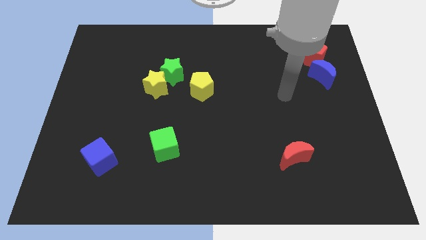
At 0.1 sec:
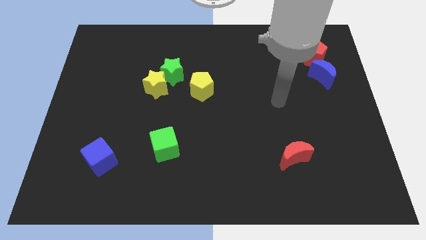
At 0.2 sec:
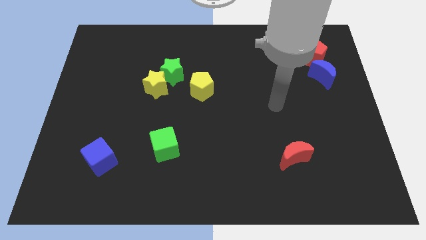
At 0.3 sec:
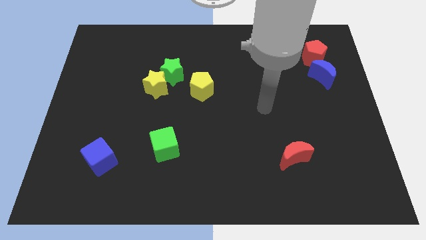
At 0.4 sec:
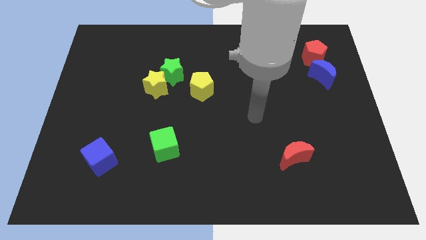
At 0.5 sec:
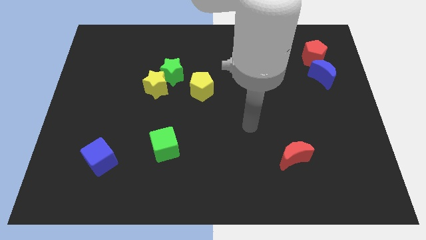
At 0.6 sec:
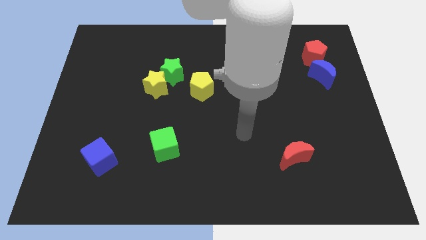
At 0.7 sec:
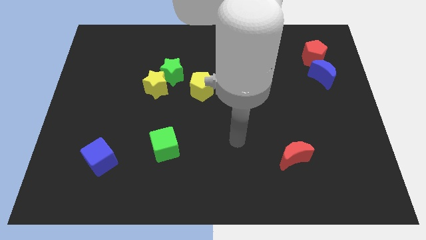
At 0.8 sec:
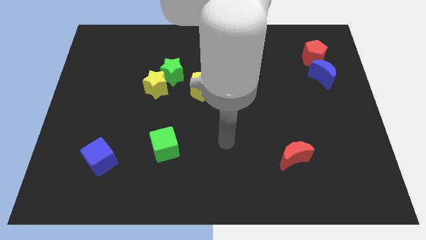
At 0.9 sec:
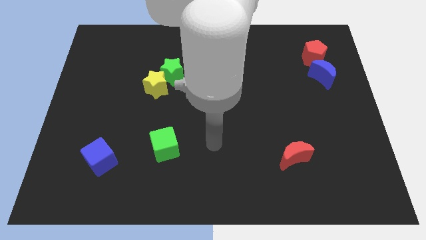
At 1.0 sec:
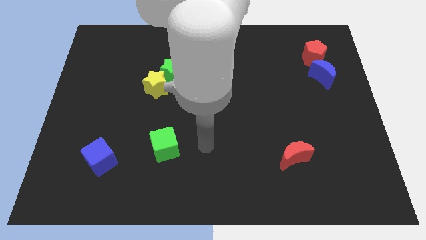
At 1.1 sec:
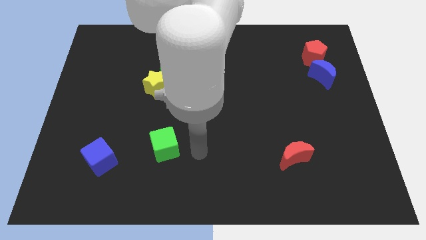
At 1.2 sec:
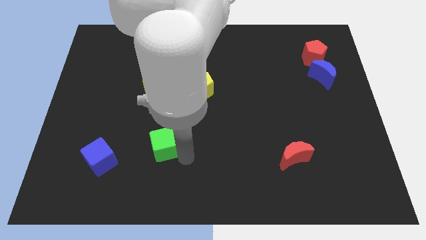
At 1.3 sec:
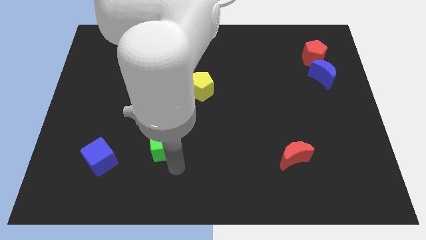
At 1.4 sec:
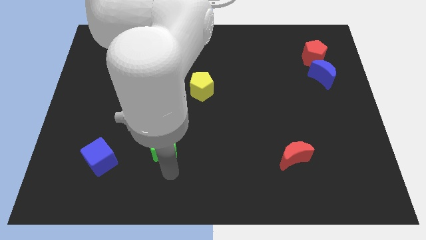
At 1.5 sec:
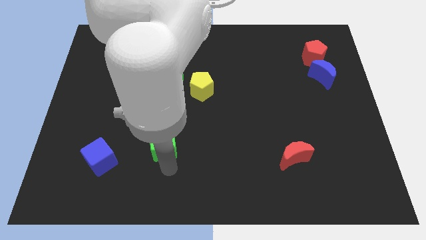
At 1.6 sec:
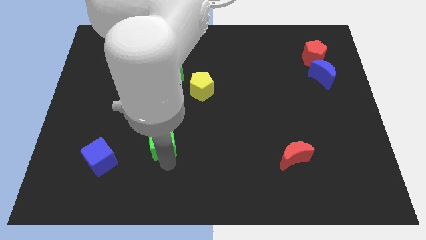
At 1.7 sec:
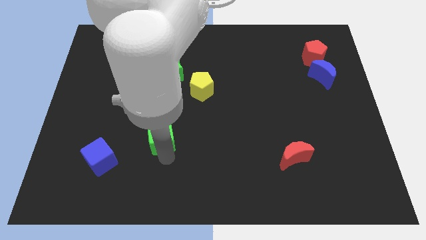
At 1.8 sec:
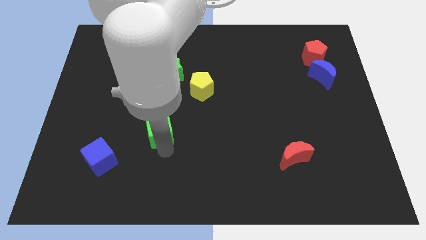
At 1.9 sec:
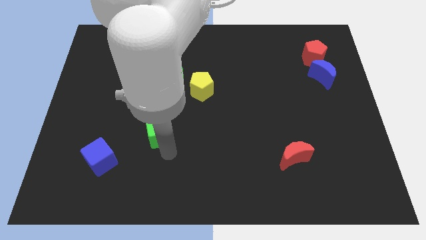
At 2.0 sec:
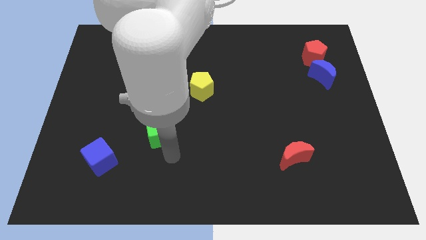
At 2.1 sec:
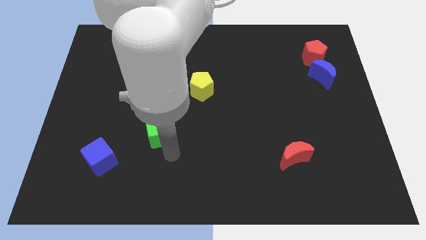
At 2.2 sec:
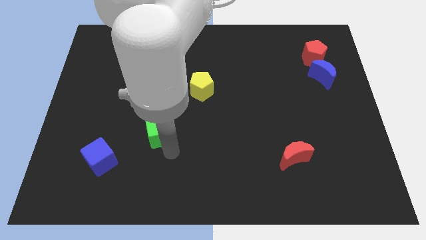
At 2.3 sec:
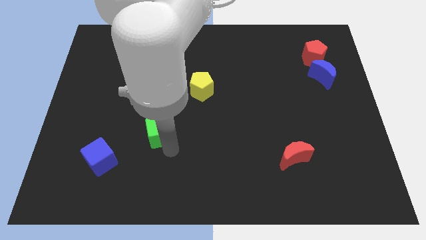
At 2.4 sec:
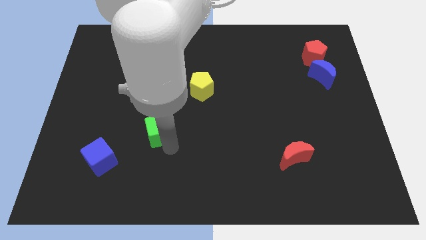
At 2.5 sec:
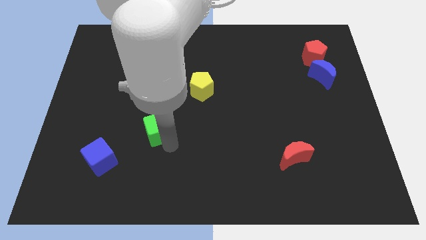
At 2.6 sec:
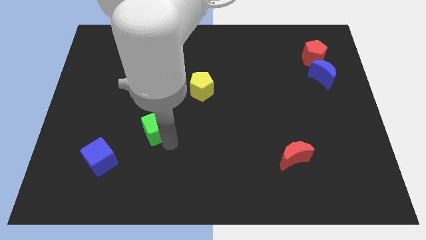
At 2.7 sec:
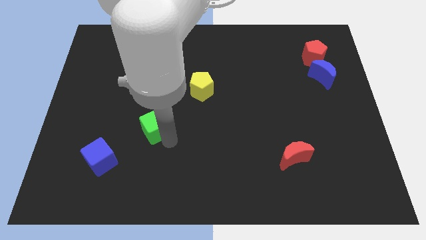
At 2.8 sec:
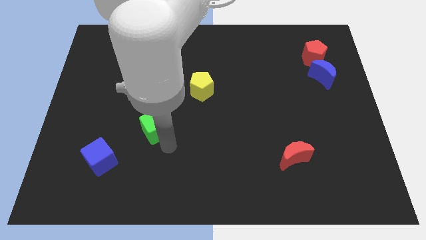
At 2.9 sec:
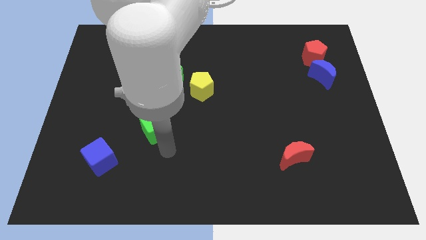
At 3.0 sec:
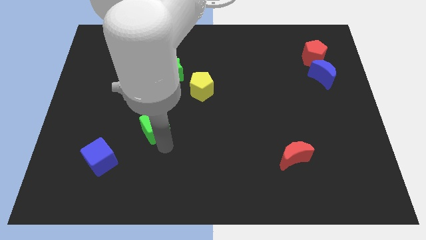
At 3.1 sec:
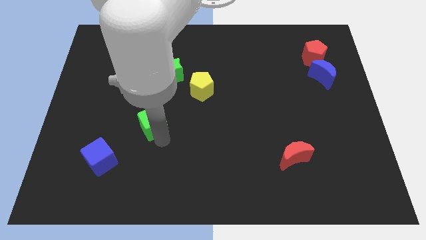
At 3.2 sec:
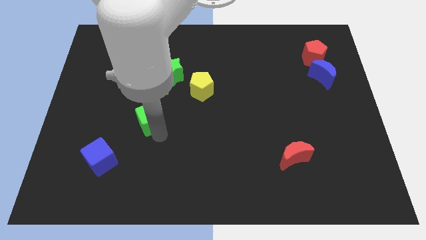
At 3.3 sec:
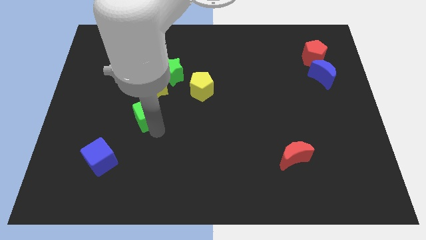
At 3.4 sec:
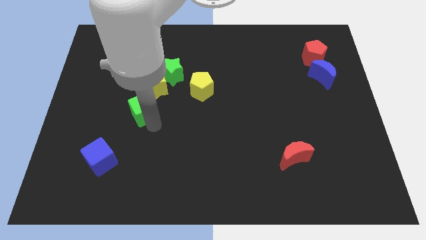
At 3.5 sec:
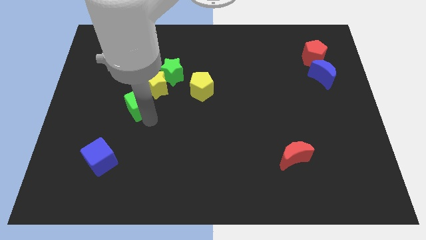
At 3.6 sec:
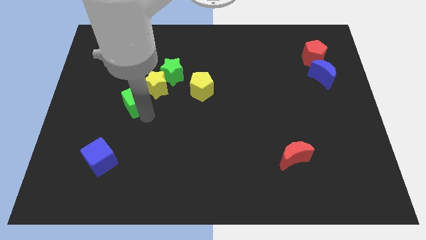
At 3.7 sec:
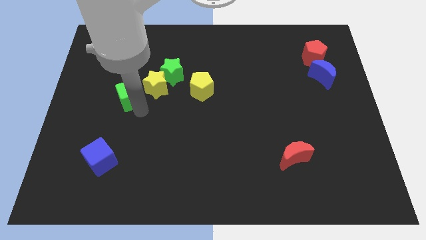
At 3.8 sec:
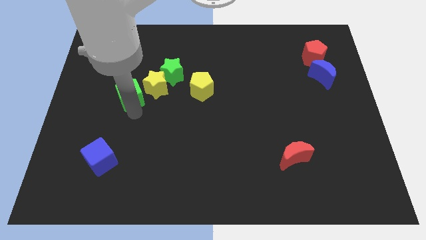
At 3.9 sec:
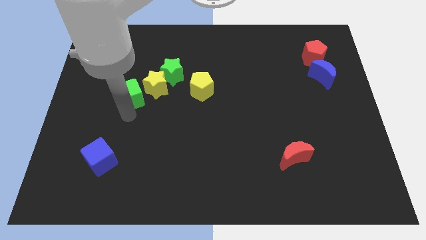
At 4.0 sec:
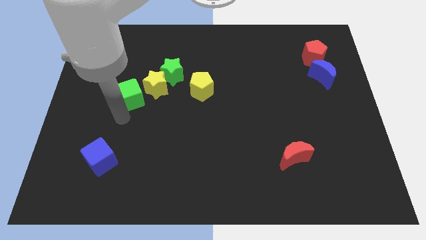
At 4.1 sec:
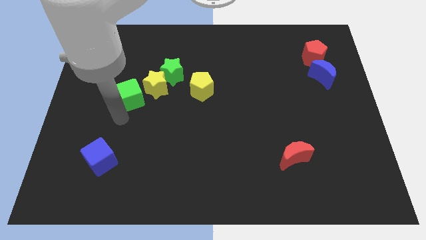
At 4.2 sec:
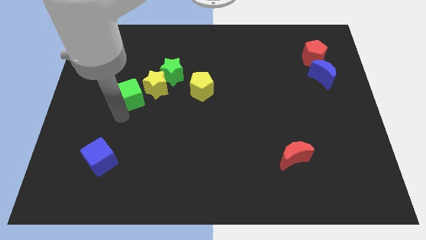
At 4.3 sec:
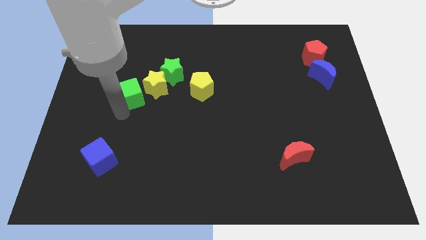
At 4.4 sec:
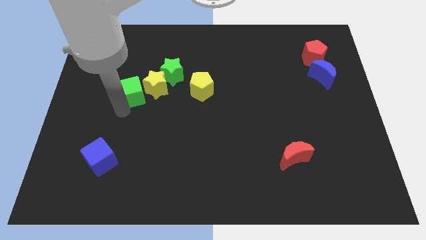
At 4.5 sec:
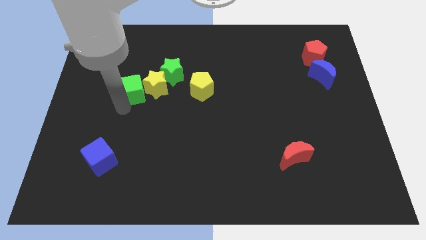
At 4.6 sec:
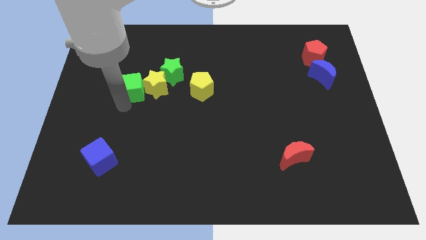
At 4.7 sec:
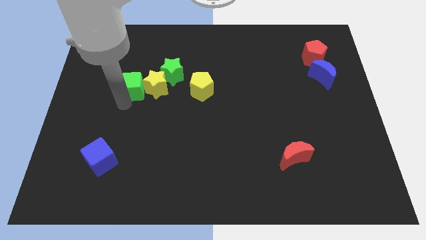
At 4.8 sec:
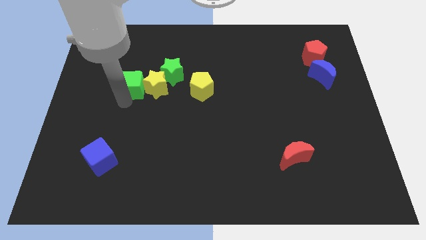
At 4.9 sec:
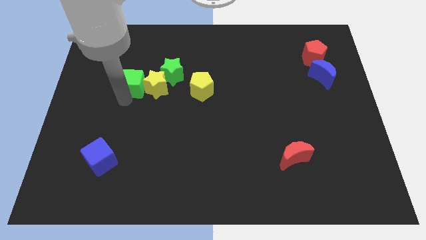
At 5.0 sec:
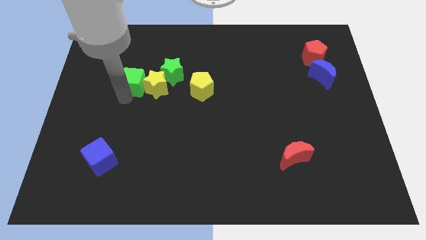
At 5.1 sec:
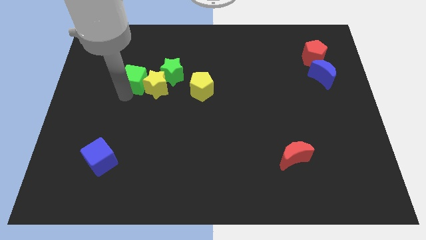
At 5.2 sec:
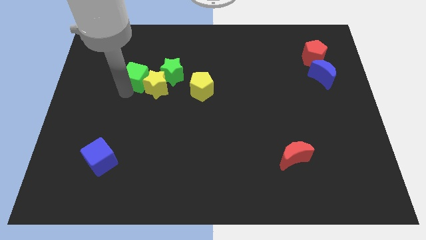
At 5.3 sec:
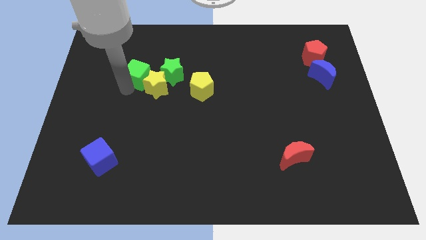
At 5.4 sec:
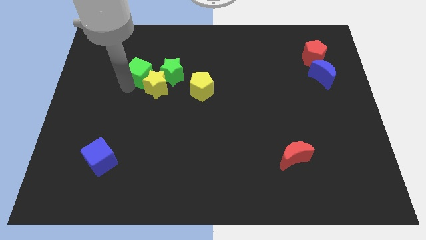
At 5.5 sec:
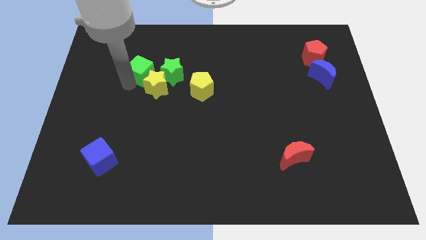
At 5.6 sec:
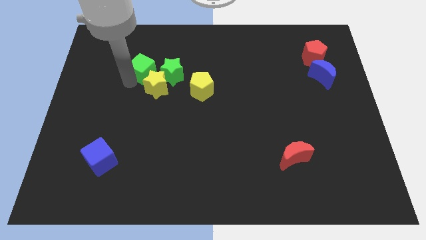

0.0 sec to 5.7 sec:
slide the green cube to the top left side of the green star

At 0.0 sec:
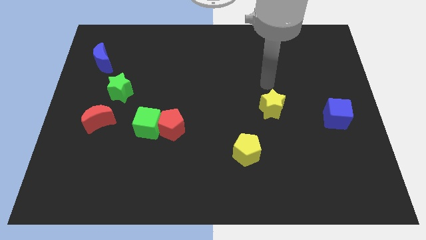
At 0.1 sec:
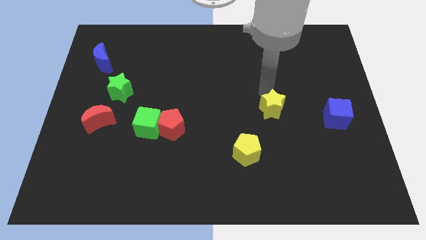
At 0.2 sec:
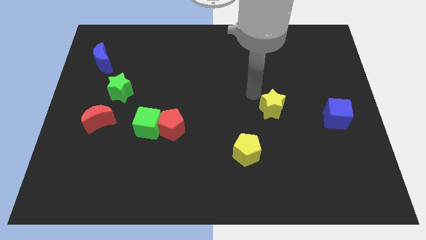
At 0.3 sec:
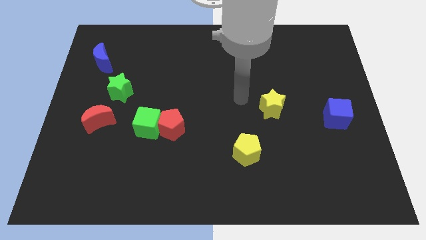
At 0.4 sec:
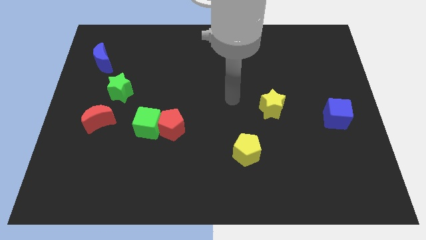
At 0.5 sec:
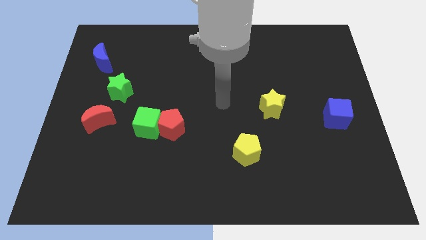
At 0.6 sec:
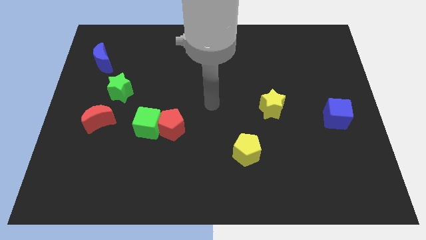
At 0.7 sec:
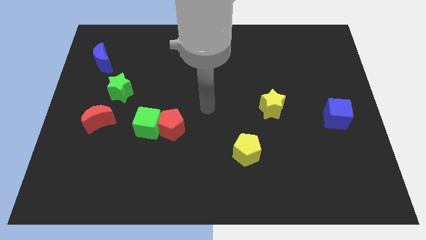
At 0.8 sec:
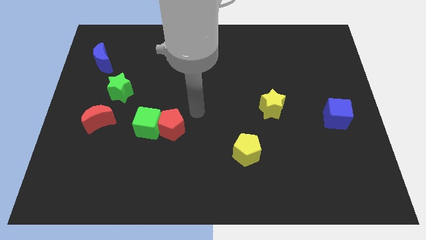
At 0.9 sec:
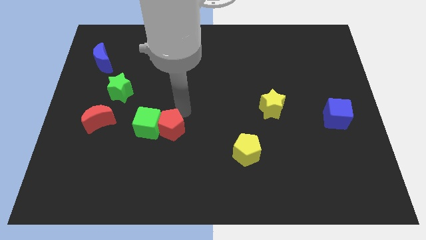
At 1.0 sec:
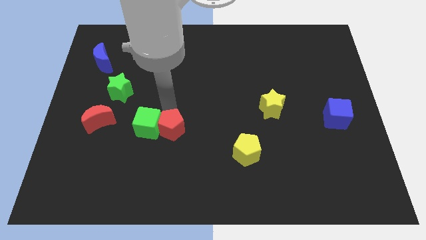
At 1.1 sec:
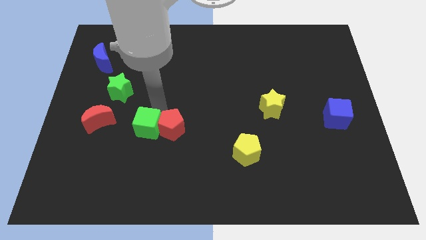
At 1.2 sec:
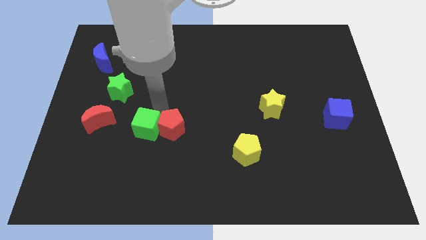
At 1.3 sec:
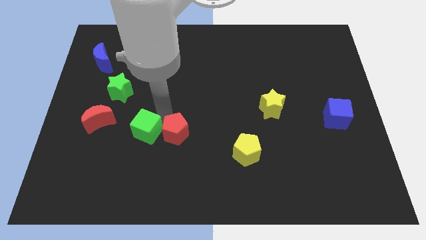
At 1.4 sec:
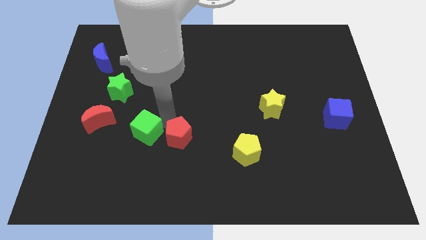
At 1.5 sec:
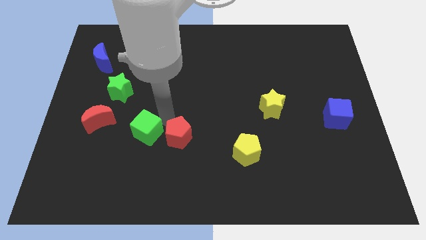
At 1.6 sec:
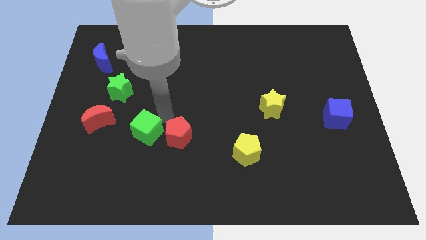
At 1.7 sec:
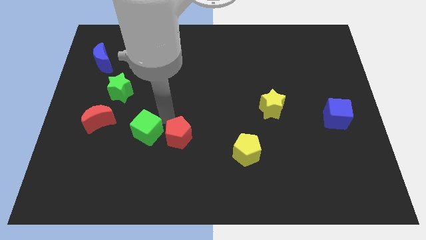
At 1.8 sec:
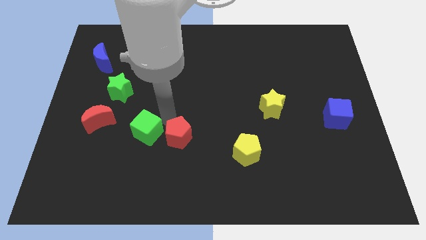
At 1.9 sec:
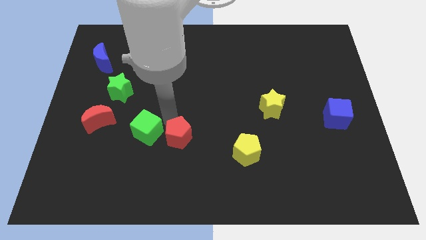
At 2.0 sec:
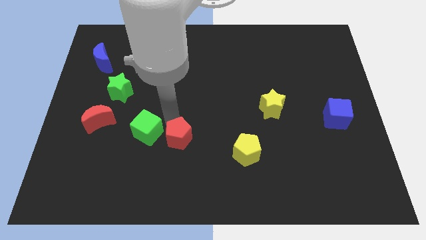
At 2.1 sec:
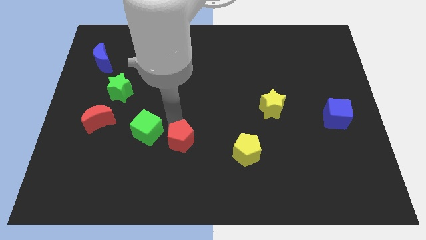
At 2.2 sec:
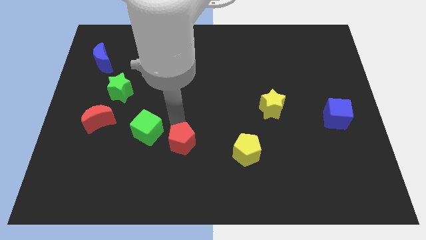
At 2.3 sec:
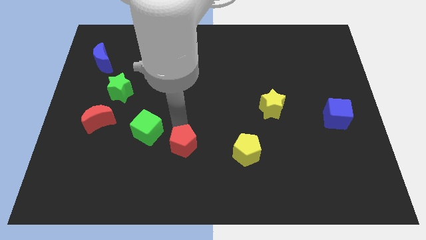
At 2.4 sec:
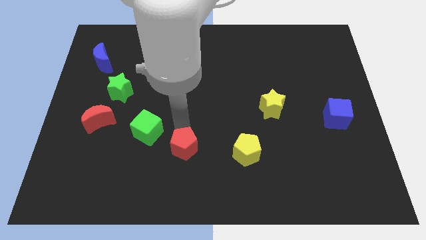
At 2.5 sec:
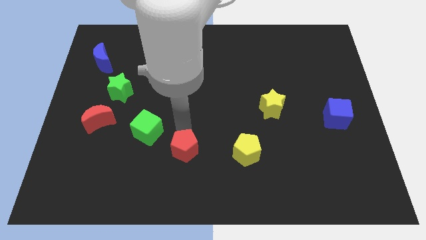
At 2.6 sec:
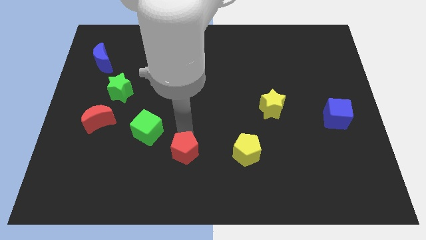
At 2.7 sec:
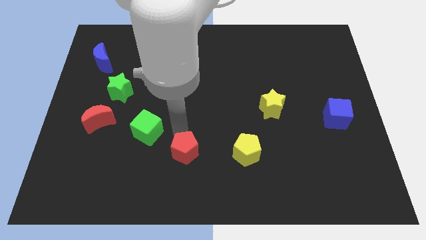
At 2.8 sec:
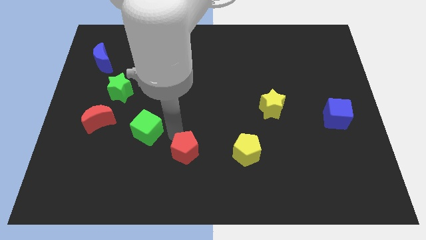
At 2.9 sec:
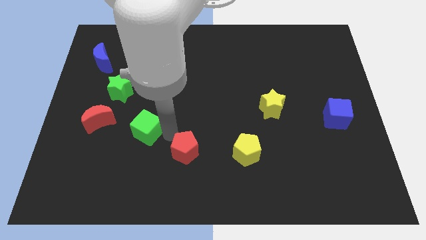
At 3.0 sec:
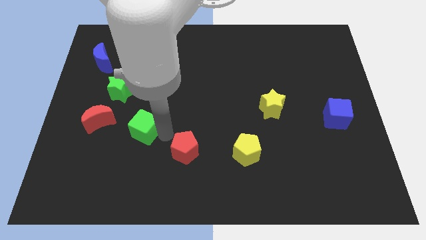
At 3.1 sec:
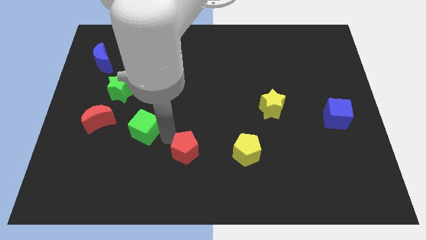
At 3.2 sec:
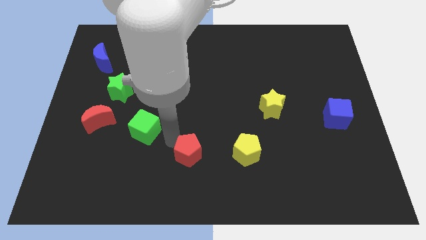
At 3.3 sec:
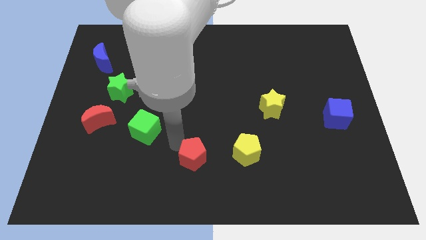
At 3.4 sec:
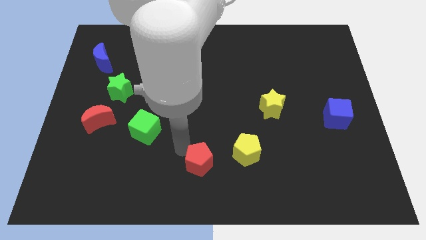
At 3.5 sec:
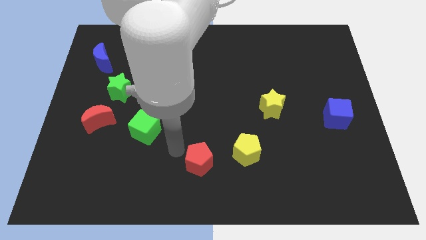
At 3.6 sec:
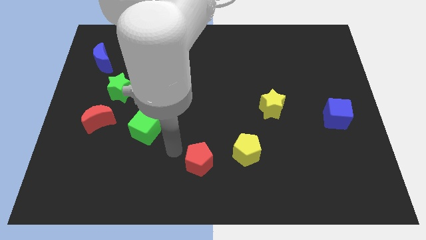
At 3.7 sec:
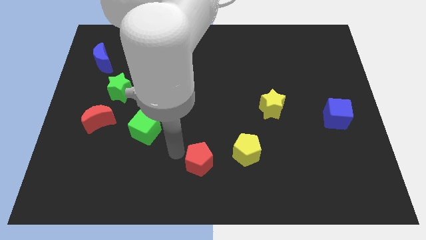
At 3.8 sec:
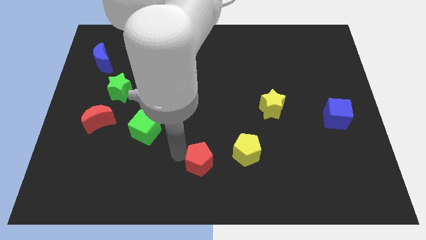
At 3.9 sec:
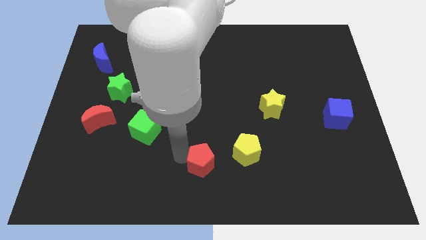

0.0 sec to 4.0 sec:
slide the red pentagon to the bottom left of the yellow pentagon
